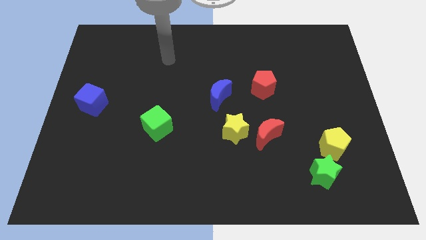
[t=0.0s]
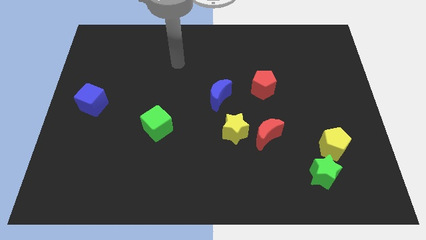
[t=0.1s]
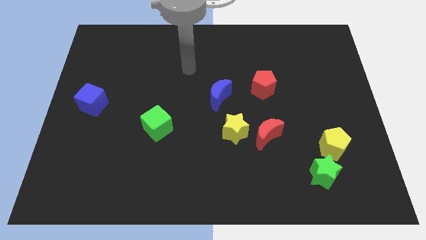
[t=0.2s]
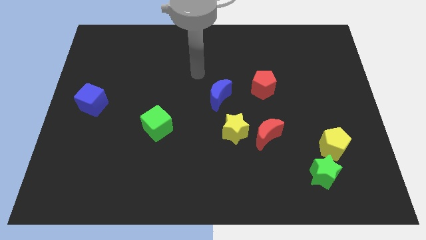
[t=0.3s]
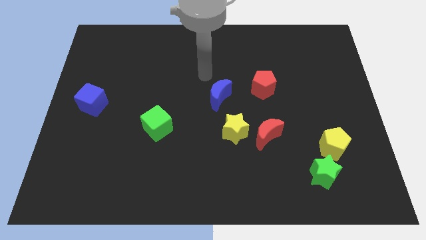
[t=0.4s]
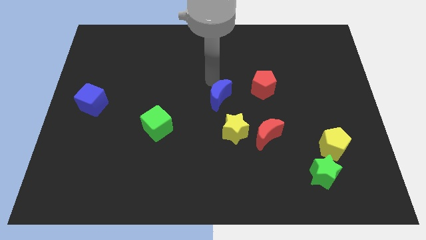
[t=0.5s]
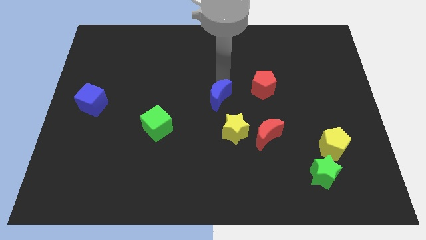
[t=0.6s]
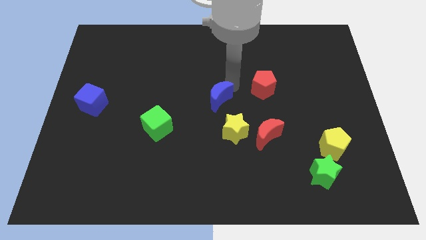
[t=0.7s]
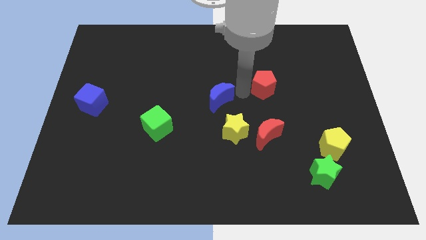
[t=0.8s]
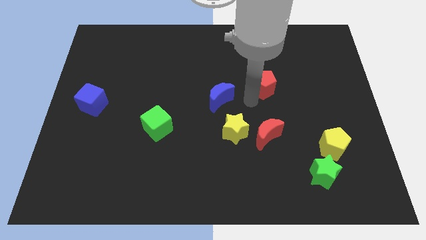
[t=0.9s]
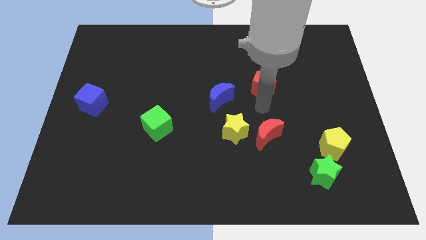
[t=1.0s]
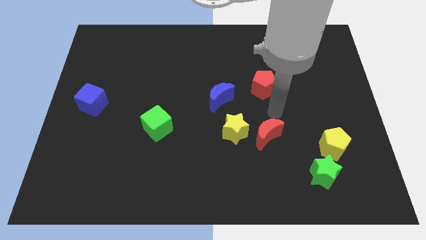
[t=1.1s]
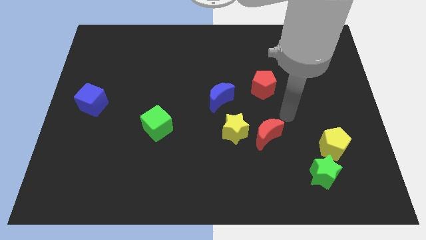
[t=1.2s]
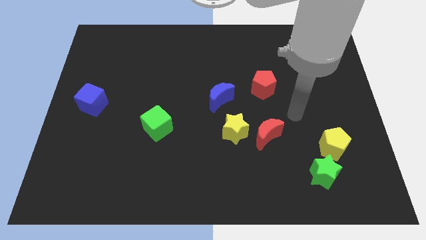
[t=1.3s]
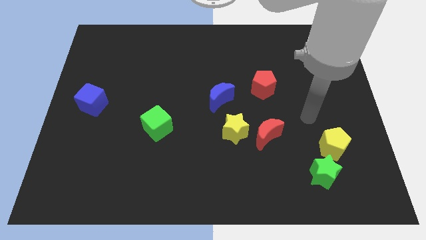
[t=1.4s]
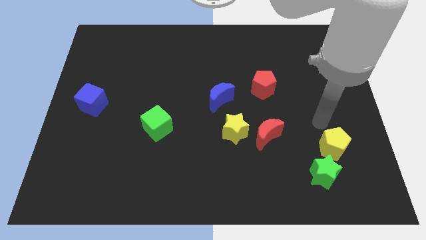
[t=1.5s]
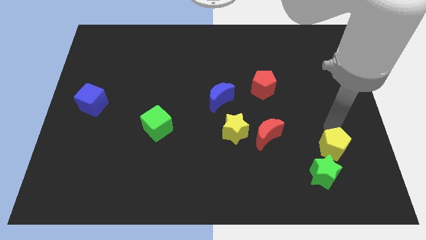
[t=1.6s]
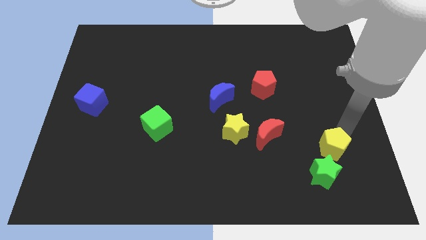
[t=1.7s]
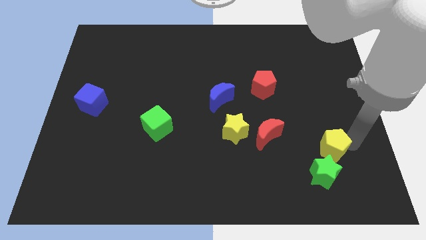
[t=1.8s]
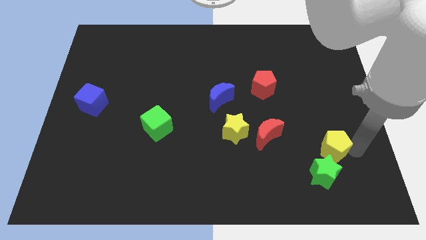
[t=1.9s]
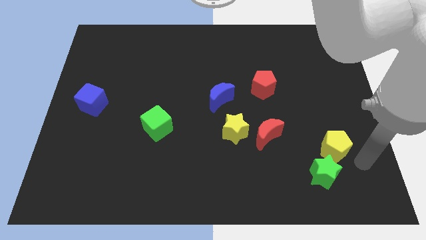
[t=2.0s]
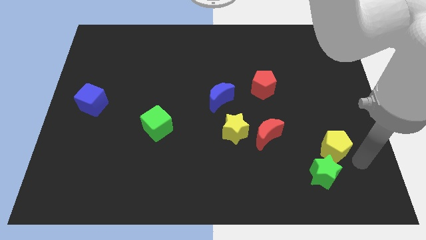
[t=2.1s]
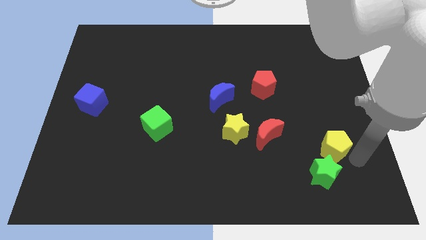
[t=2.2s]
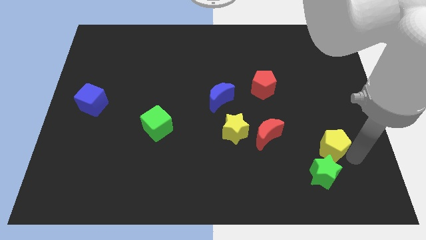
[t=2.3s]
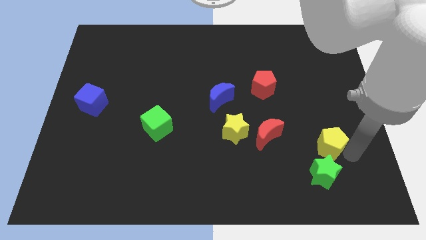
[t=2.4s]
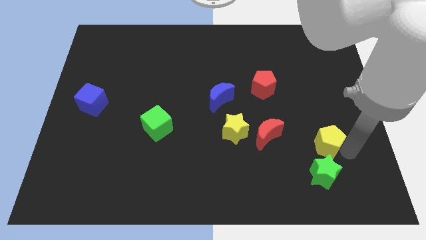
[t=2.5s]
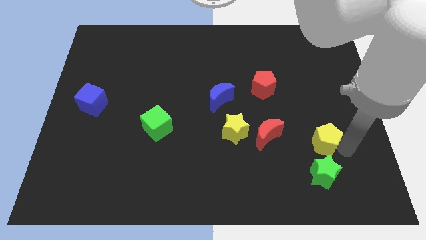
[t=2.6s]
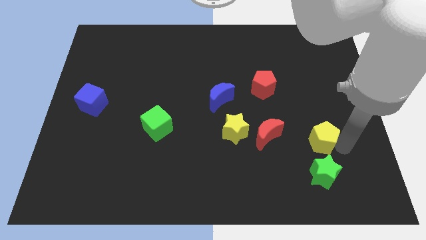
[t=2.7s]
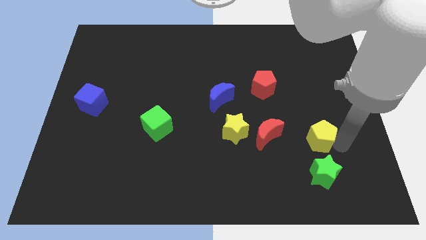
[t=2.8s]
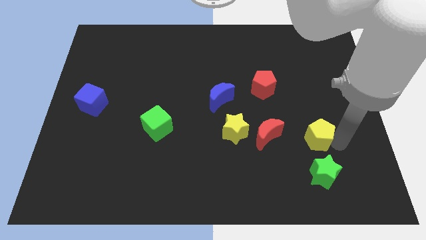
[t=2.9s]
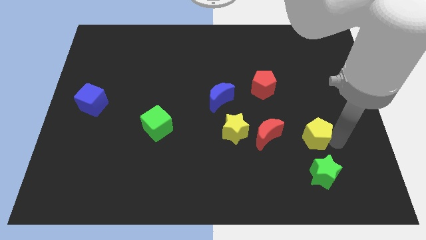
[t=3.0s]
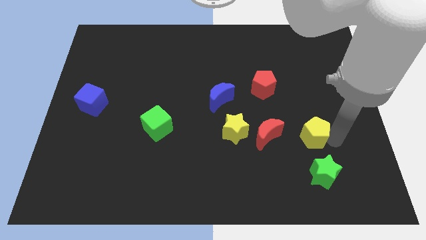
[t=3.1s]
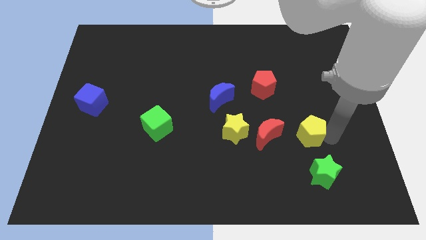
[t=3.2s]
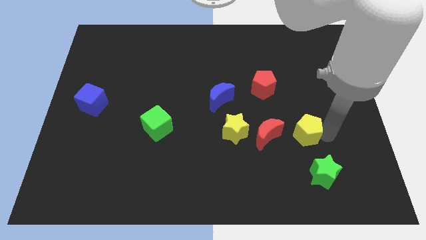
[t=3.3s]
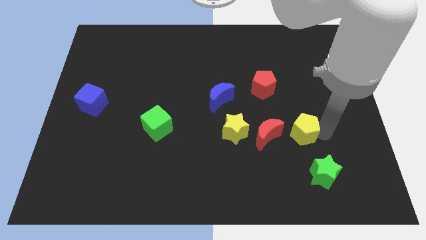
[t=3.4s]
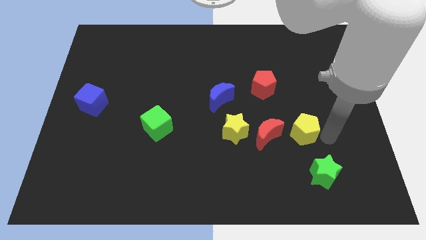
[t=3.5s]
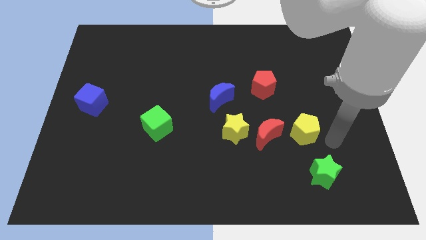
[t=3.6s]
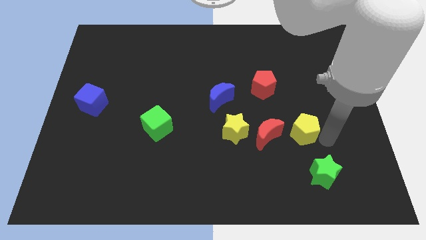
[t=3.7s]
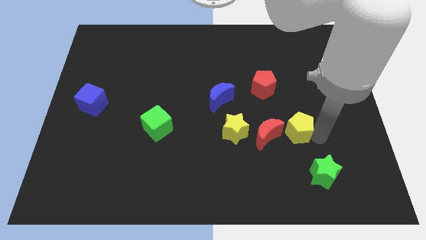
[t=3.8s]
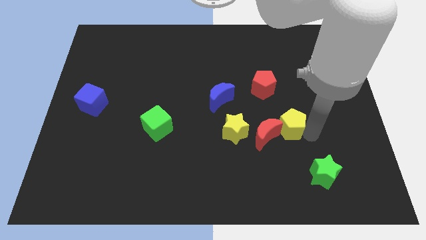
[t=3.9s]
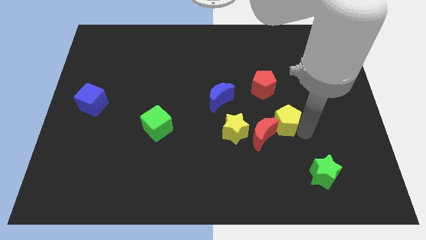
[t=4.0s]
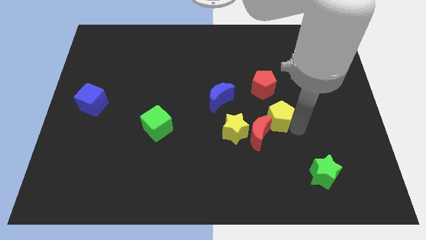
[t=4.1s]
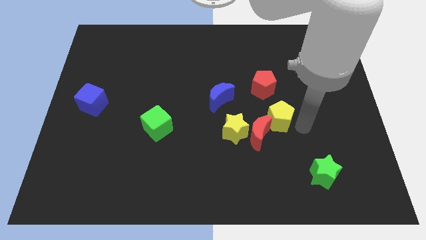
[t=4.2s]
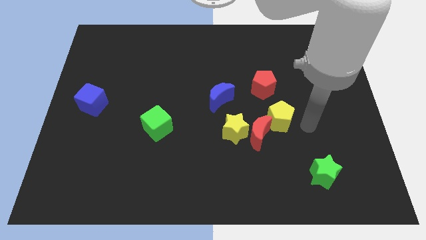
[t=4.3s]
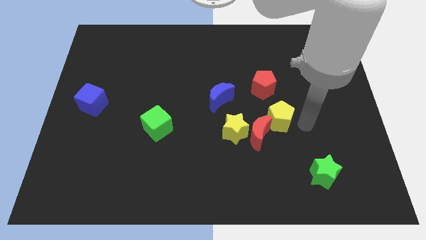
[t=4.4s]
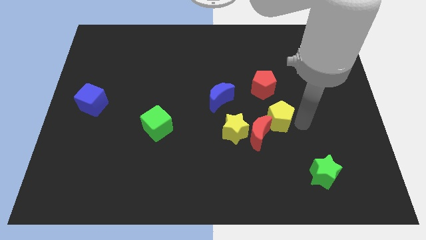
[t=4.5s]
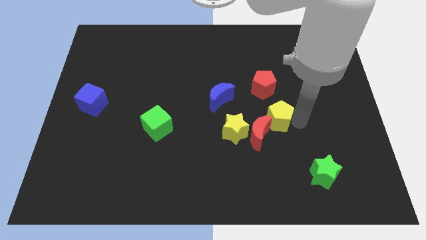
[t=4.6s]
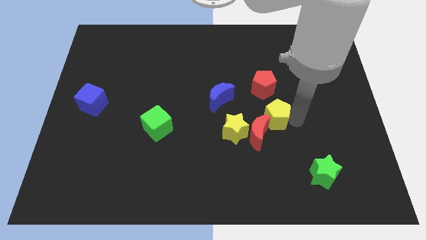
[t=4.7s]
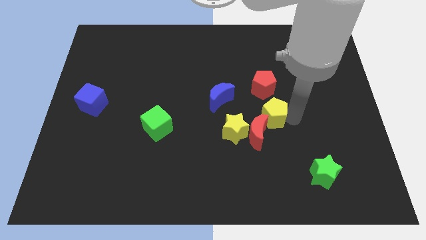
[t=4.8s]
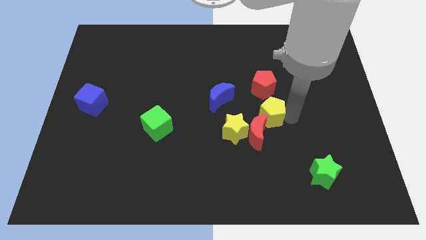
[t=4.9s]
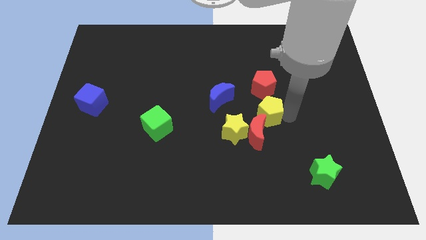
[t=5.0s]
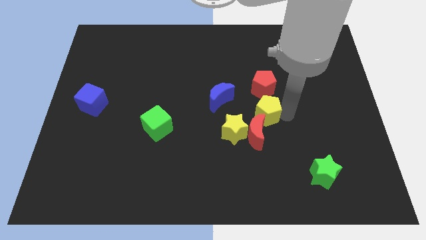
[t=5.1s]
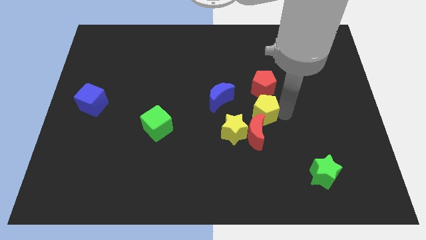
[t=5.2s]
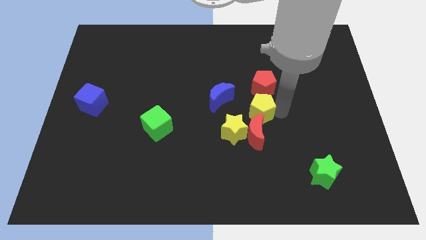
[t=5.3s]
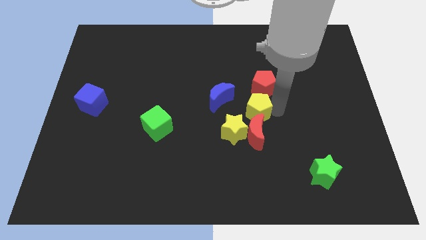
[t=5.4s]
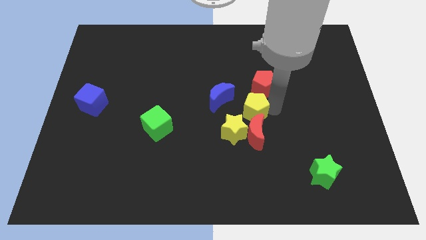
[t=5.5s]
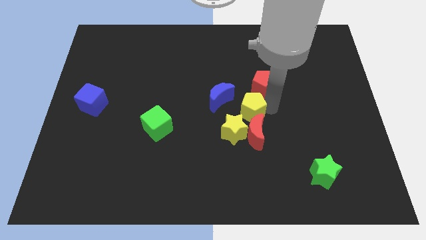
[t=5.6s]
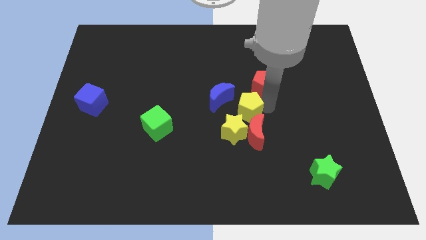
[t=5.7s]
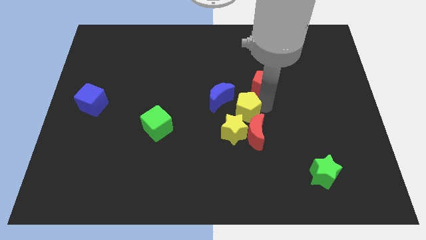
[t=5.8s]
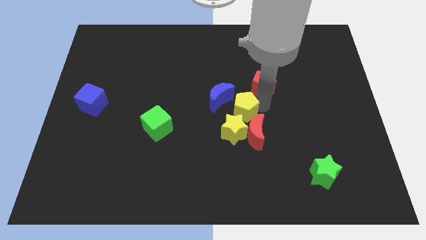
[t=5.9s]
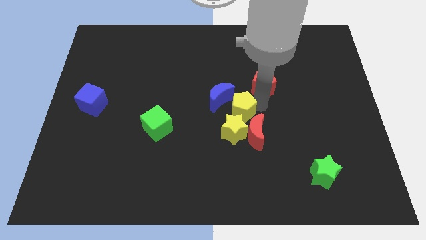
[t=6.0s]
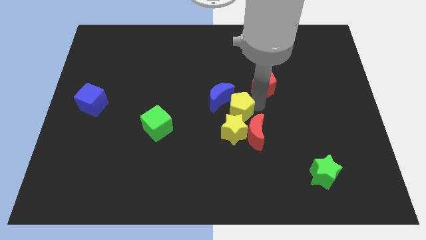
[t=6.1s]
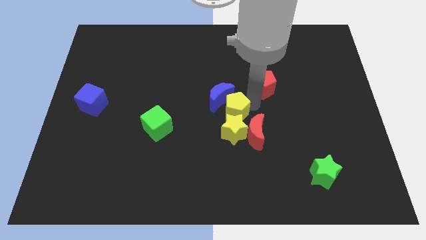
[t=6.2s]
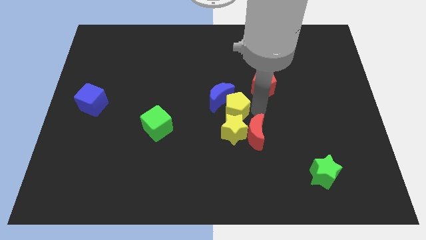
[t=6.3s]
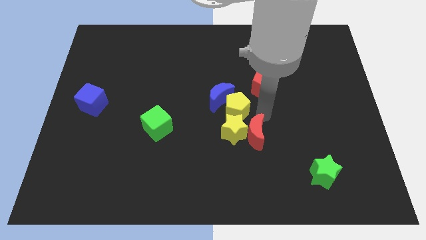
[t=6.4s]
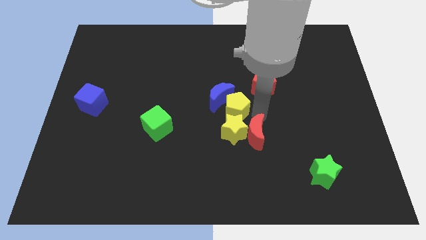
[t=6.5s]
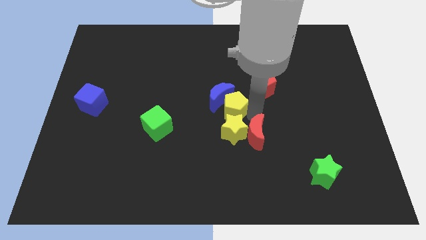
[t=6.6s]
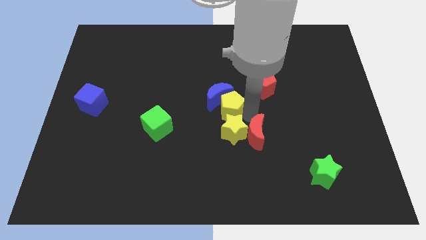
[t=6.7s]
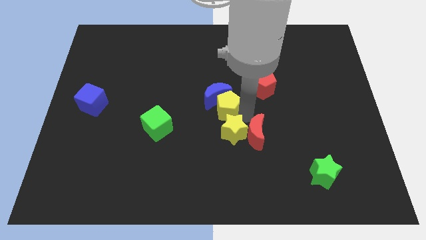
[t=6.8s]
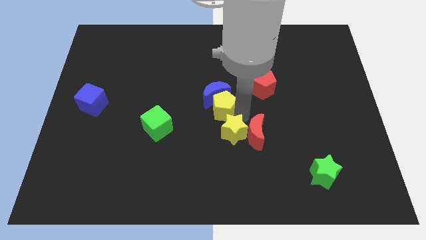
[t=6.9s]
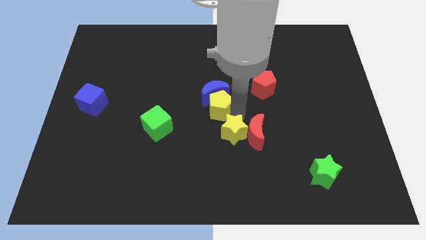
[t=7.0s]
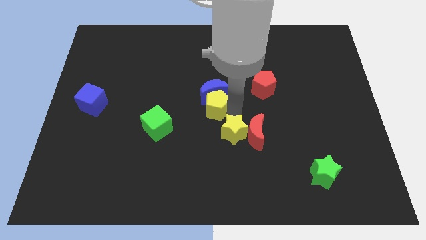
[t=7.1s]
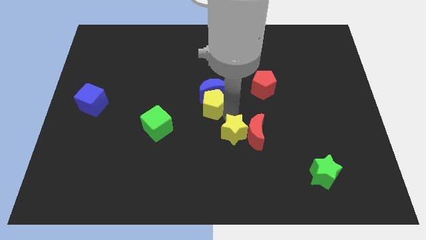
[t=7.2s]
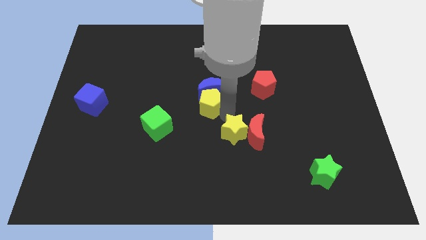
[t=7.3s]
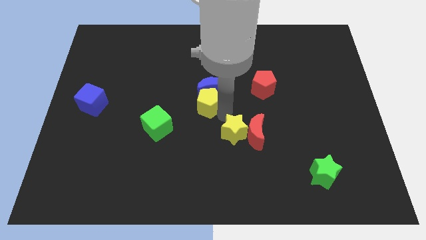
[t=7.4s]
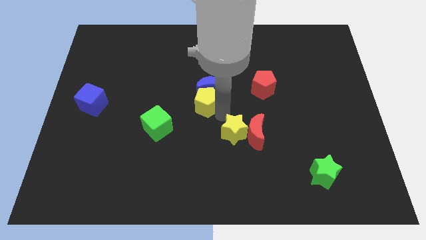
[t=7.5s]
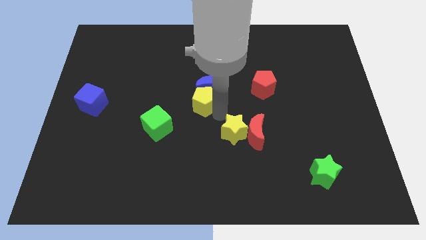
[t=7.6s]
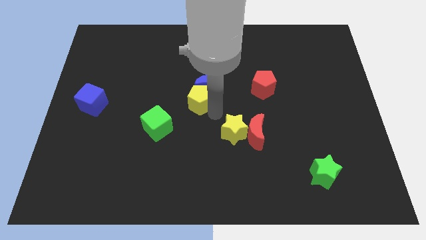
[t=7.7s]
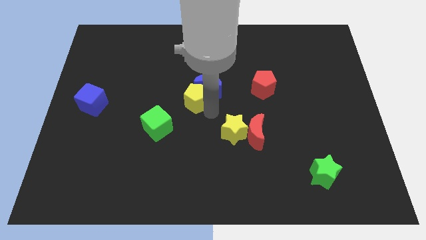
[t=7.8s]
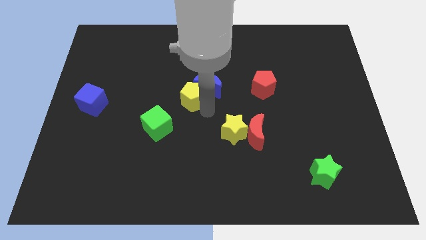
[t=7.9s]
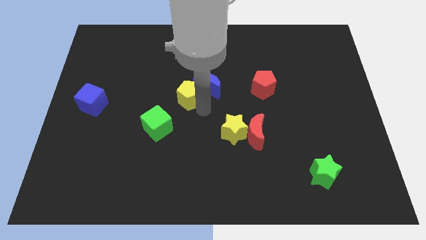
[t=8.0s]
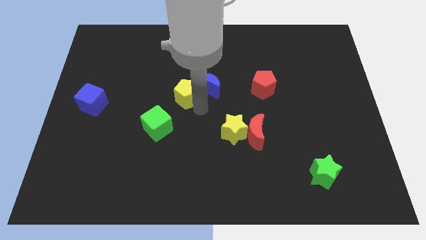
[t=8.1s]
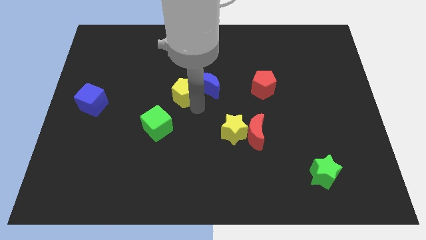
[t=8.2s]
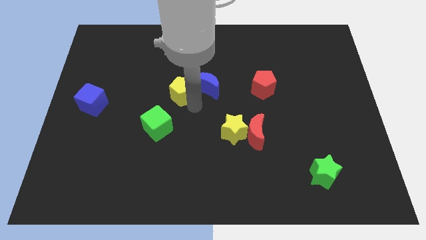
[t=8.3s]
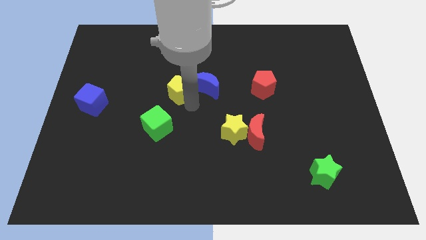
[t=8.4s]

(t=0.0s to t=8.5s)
slide the yellow pentagon above the green cube
